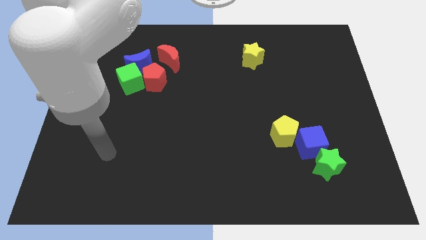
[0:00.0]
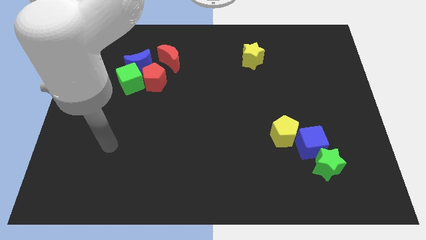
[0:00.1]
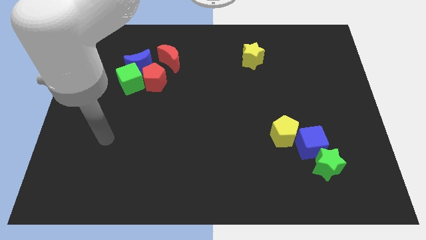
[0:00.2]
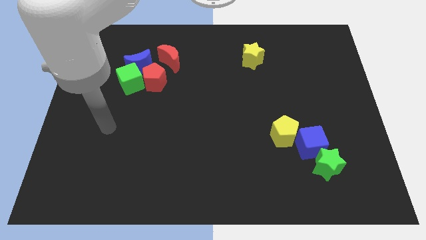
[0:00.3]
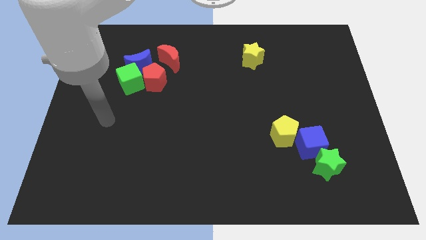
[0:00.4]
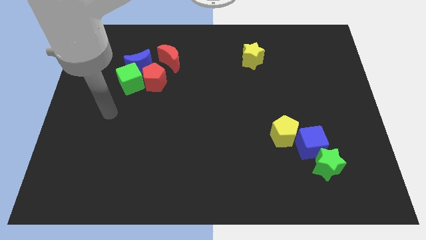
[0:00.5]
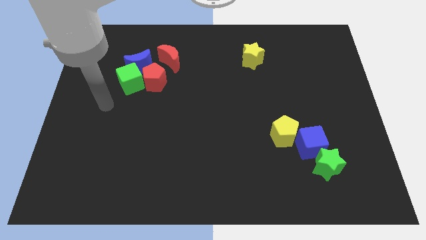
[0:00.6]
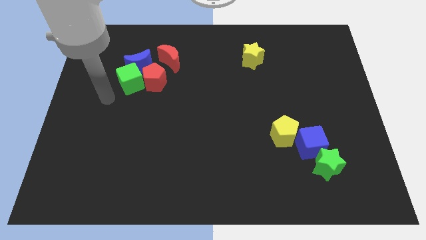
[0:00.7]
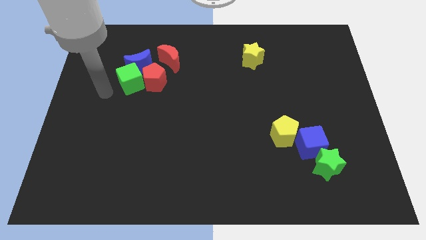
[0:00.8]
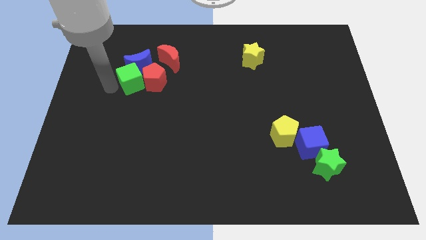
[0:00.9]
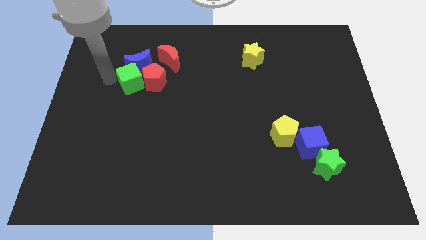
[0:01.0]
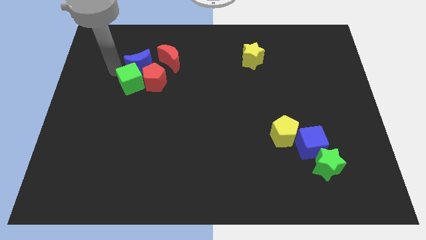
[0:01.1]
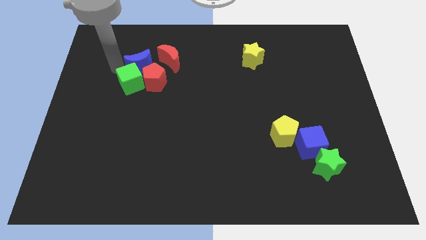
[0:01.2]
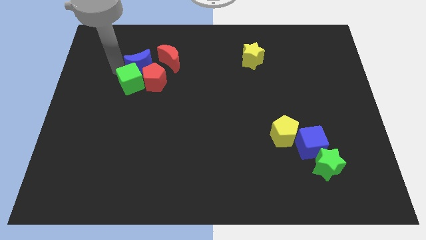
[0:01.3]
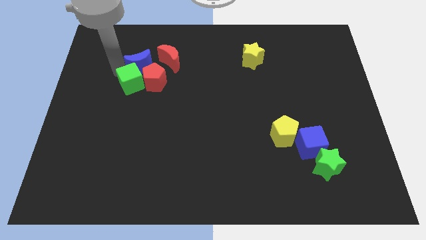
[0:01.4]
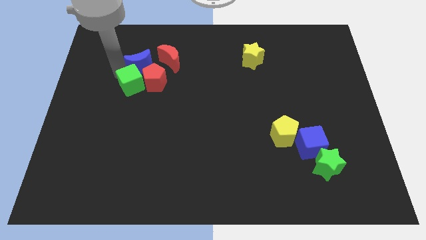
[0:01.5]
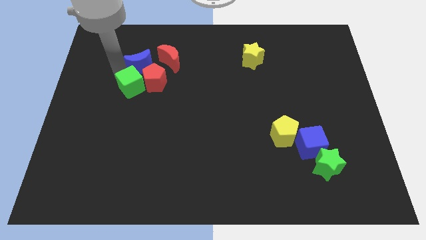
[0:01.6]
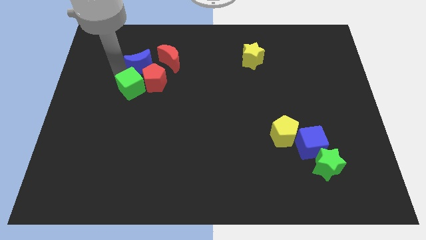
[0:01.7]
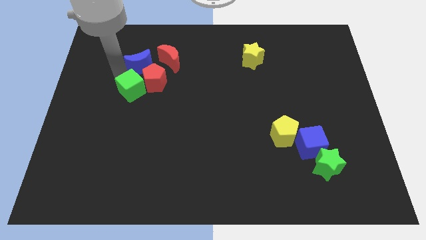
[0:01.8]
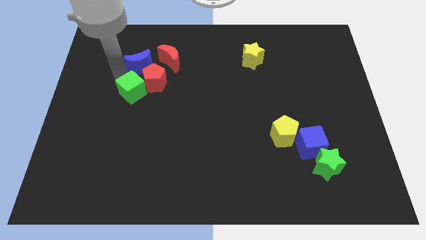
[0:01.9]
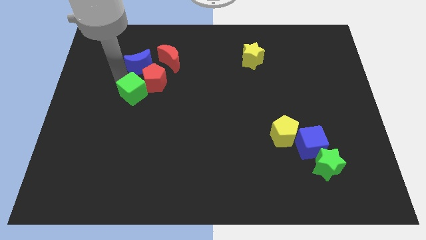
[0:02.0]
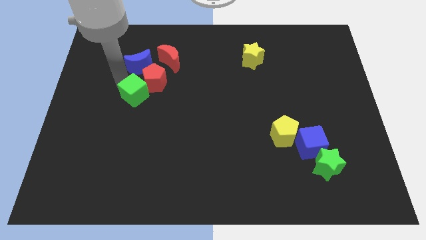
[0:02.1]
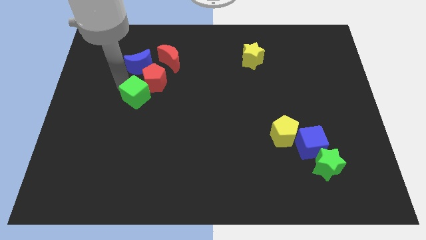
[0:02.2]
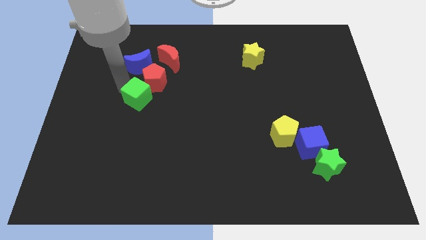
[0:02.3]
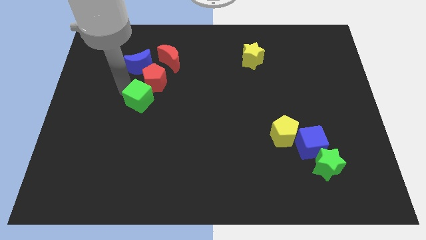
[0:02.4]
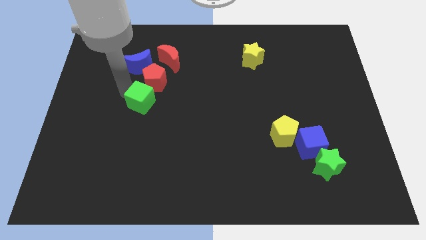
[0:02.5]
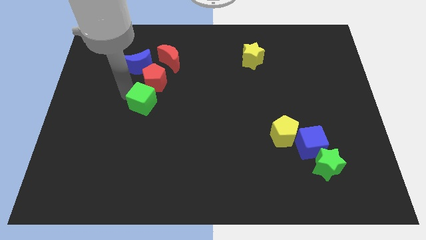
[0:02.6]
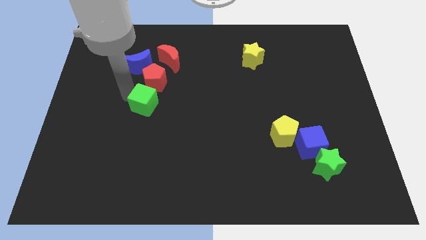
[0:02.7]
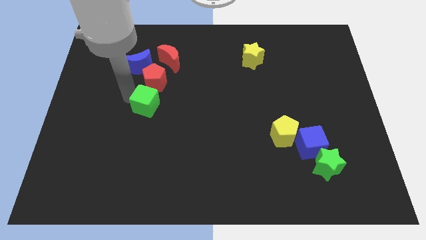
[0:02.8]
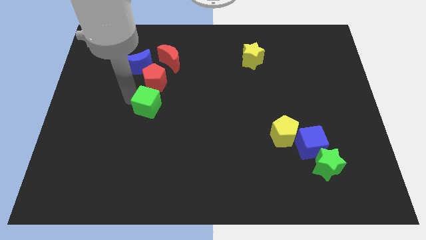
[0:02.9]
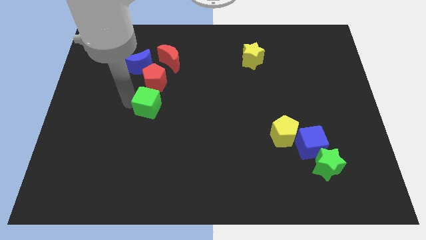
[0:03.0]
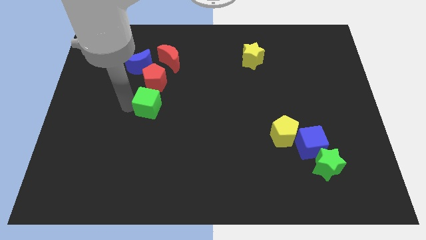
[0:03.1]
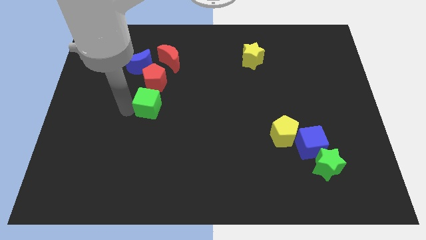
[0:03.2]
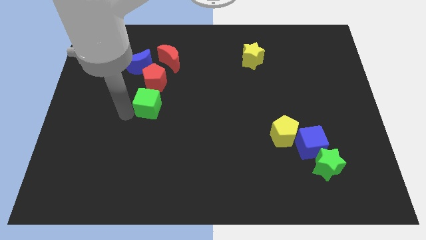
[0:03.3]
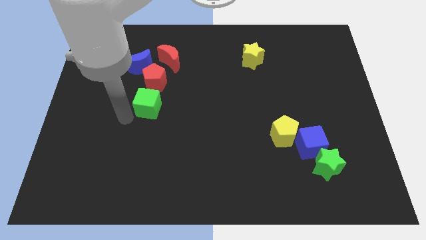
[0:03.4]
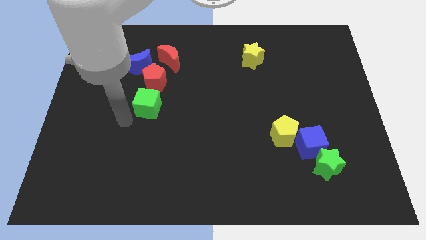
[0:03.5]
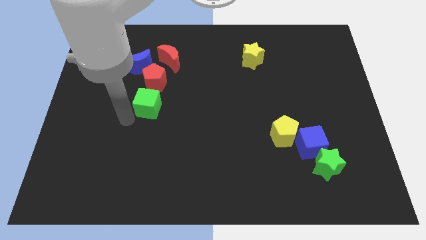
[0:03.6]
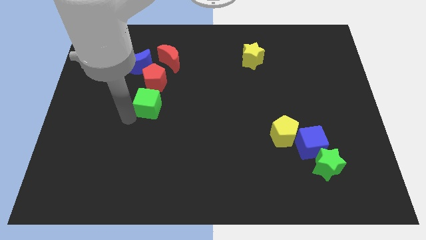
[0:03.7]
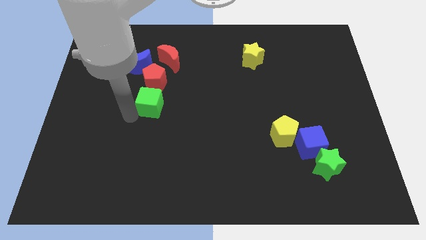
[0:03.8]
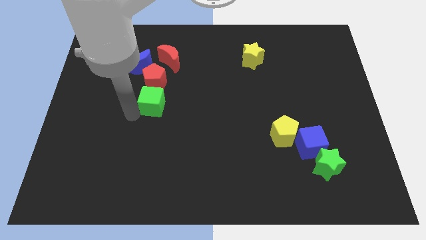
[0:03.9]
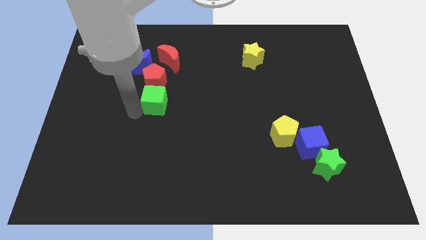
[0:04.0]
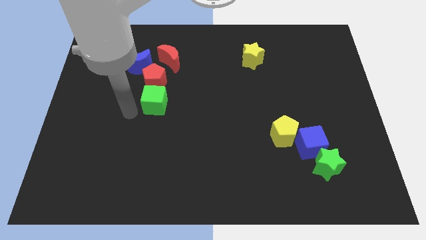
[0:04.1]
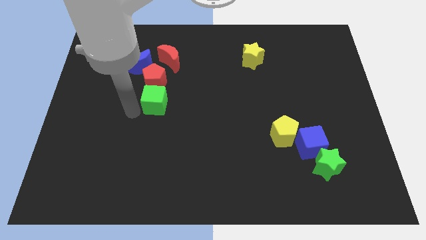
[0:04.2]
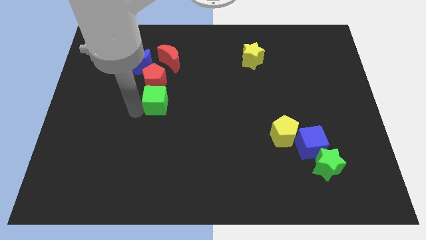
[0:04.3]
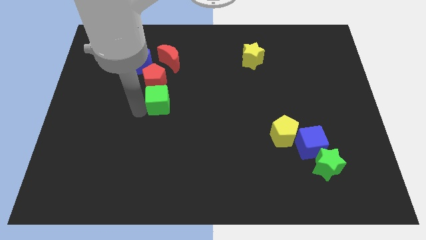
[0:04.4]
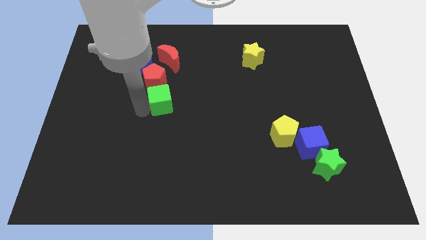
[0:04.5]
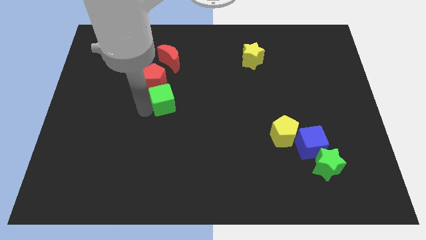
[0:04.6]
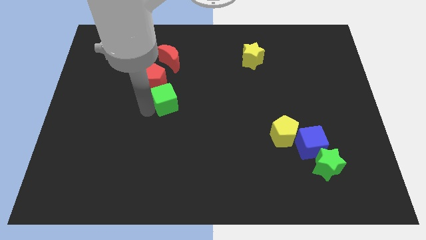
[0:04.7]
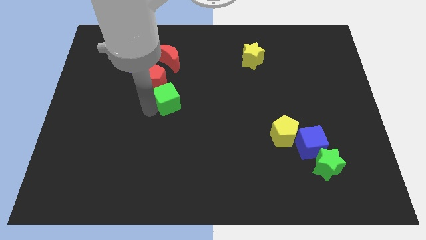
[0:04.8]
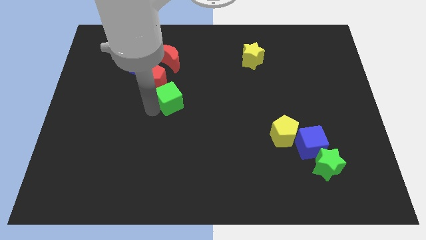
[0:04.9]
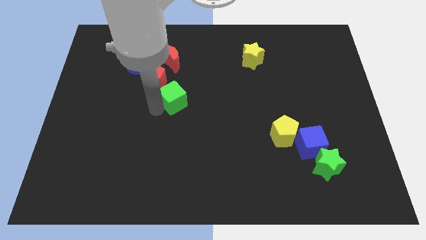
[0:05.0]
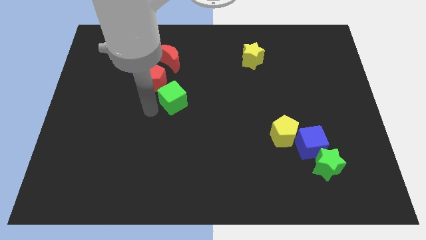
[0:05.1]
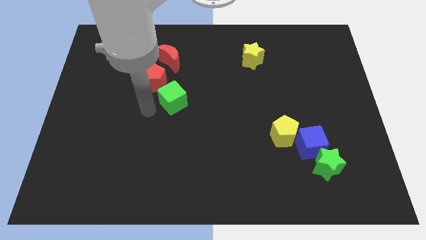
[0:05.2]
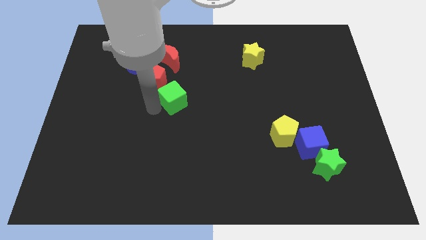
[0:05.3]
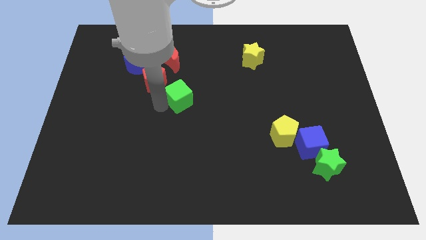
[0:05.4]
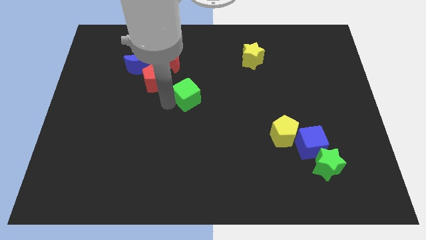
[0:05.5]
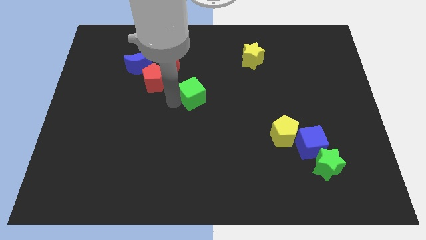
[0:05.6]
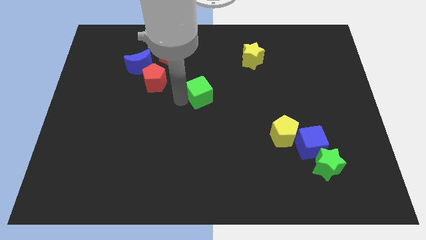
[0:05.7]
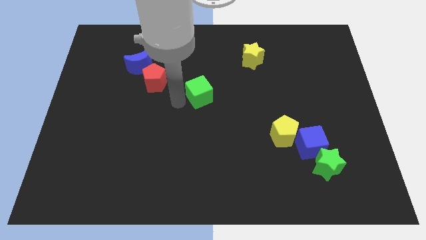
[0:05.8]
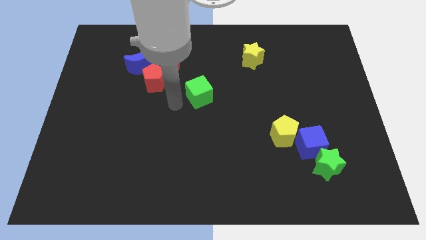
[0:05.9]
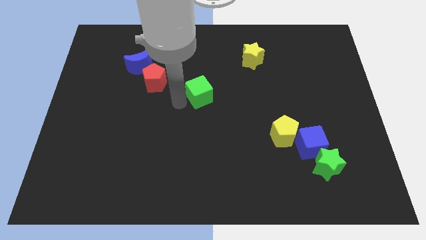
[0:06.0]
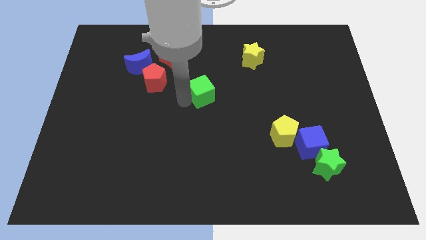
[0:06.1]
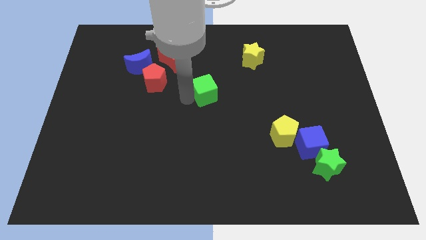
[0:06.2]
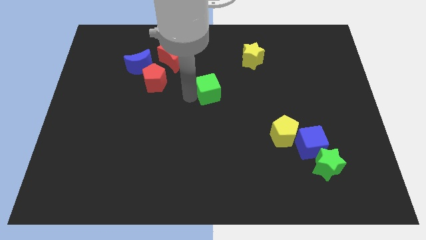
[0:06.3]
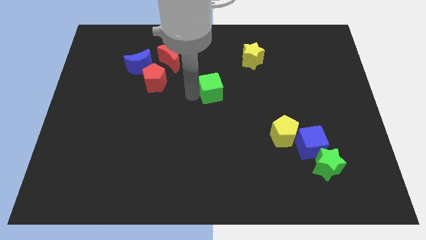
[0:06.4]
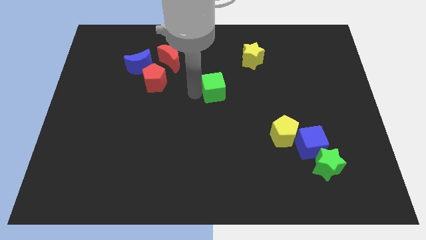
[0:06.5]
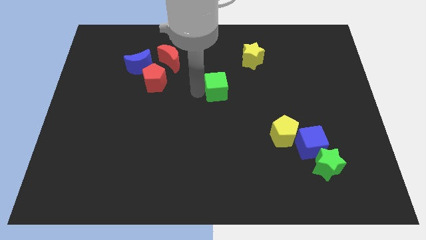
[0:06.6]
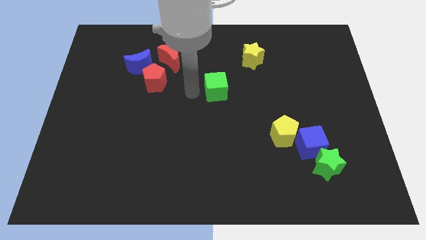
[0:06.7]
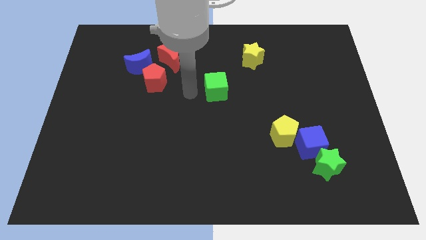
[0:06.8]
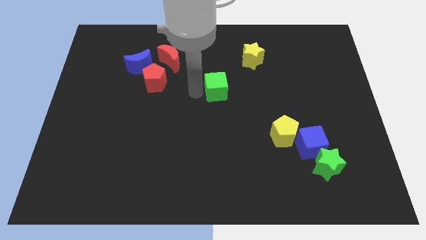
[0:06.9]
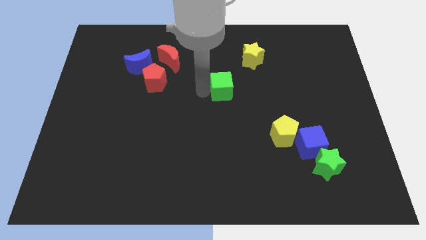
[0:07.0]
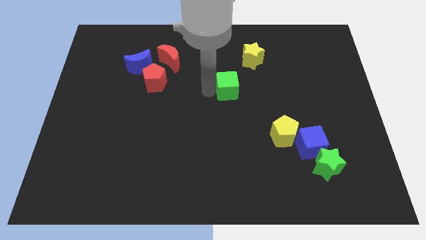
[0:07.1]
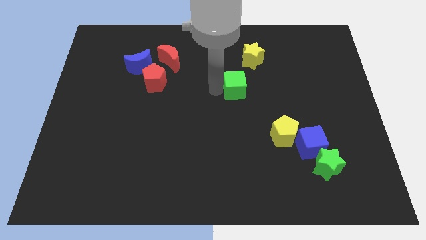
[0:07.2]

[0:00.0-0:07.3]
put the green cube below the yellow star
